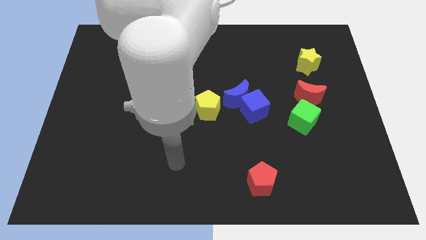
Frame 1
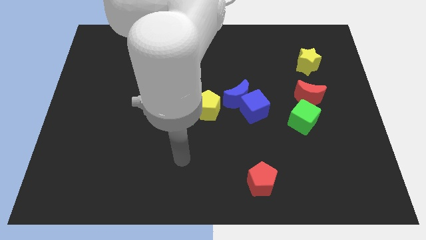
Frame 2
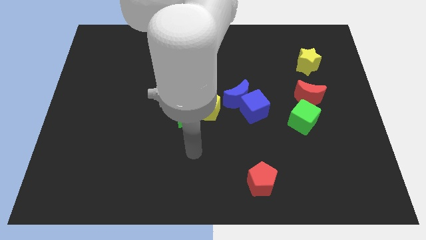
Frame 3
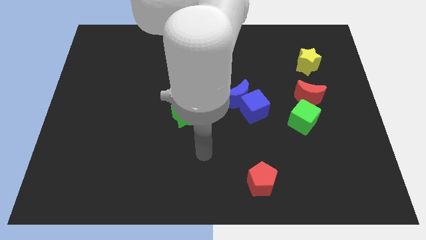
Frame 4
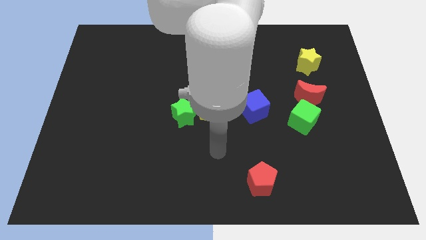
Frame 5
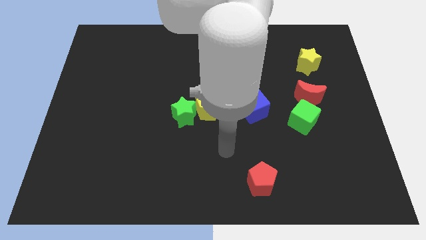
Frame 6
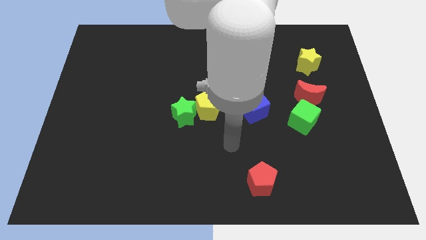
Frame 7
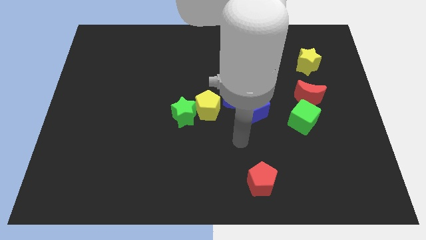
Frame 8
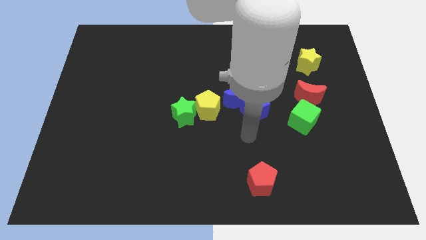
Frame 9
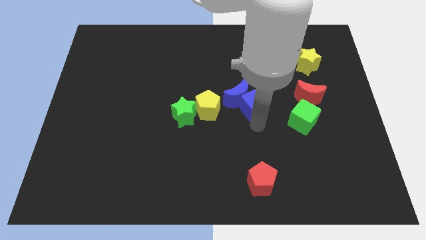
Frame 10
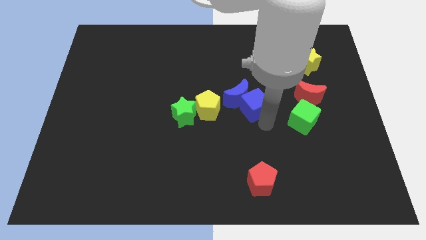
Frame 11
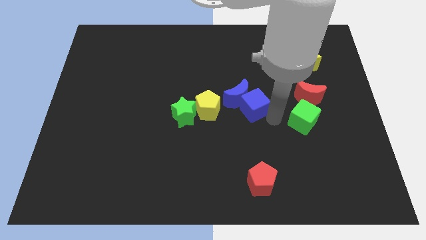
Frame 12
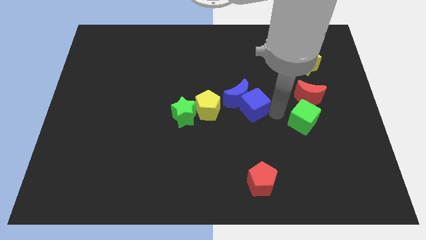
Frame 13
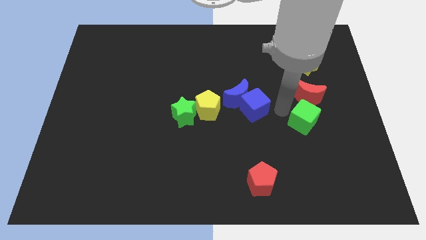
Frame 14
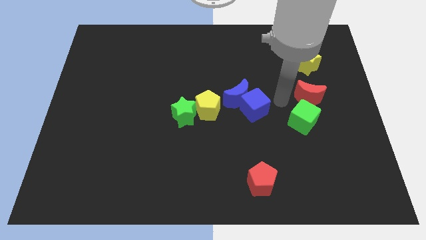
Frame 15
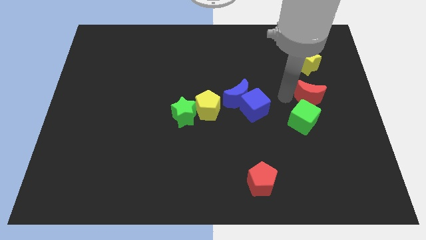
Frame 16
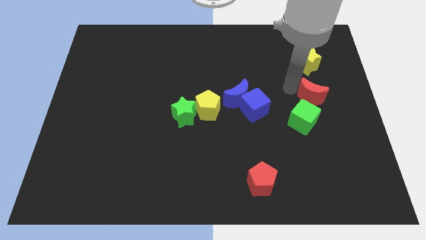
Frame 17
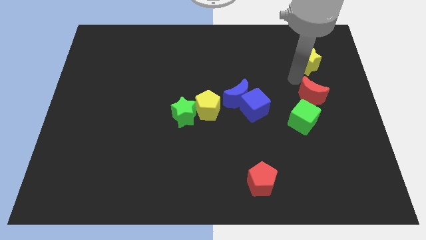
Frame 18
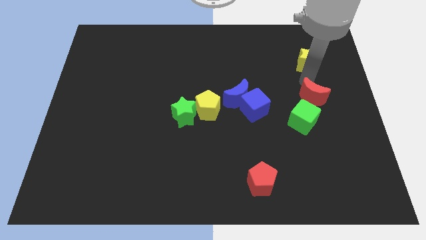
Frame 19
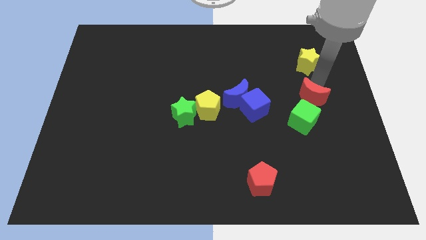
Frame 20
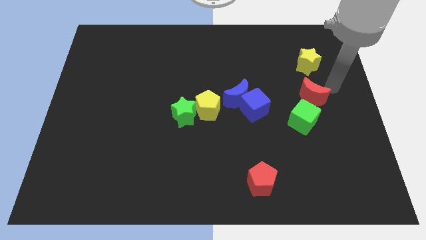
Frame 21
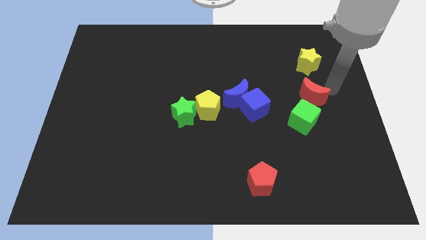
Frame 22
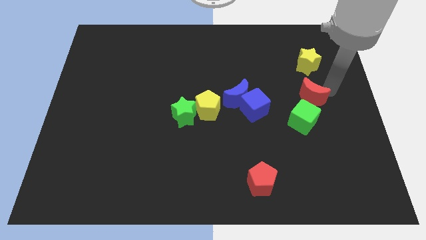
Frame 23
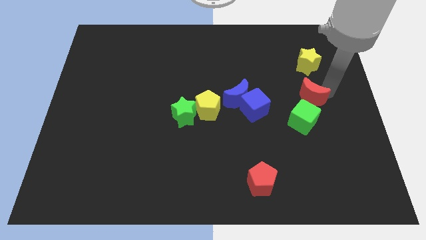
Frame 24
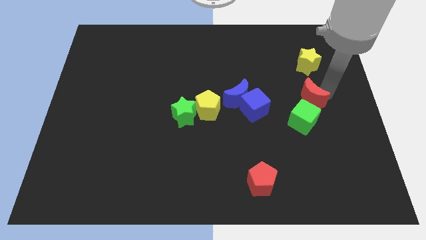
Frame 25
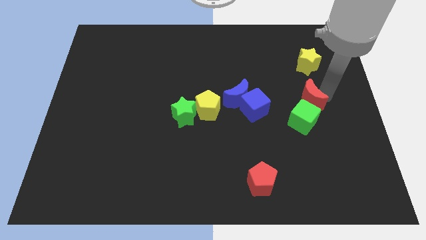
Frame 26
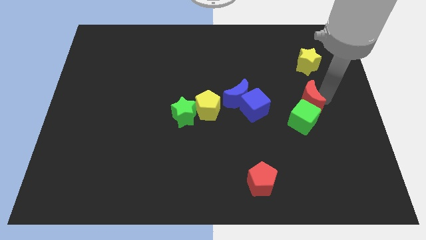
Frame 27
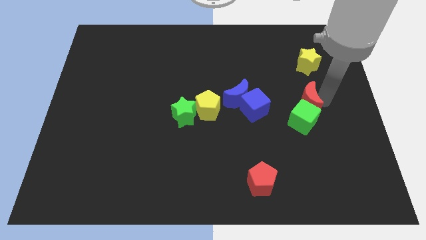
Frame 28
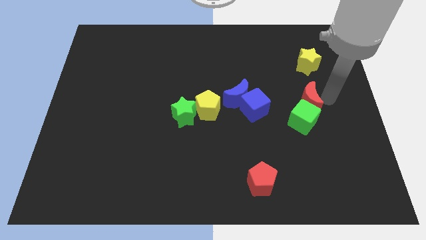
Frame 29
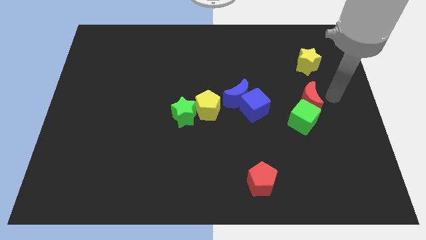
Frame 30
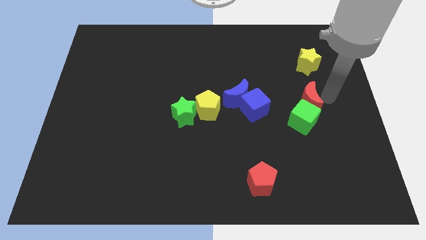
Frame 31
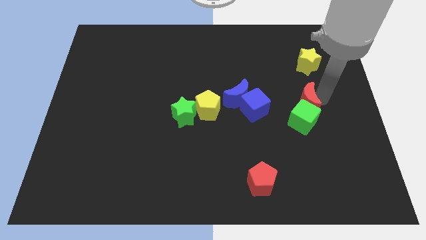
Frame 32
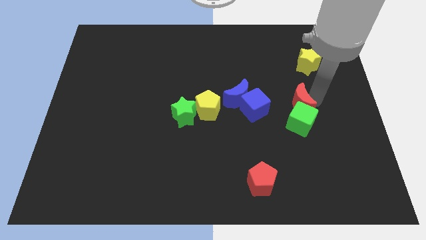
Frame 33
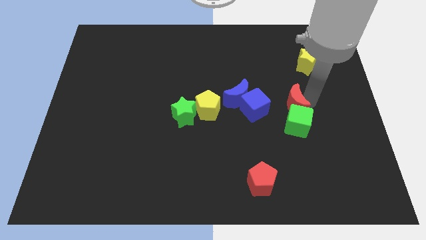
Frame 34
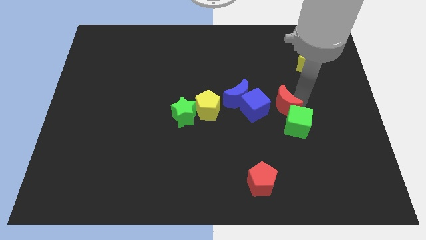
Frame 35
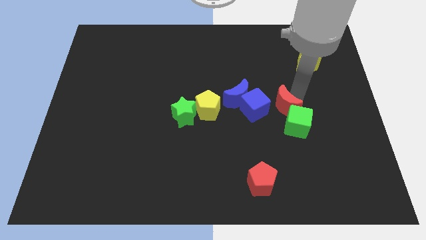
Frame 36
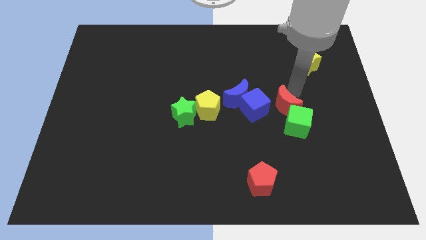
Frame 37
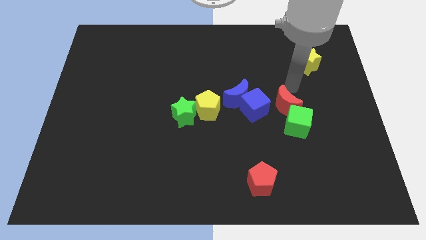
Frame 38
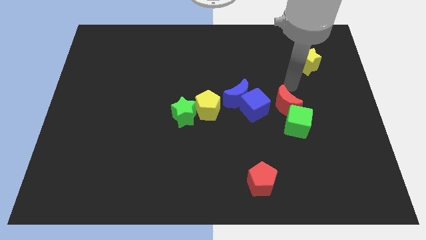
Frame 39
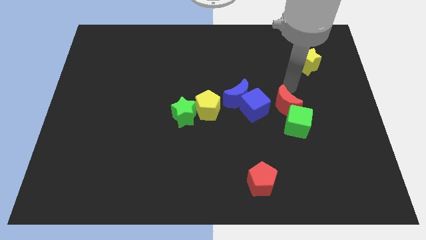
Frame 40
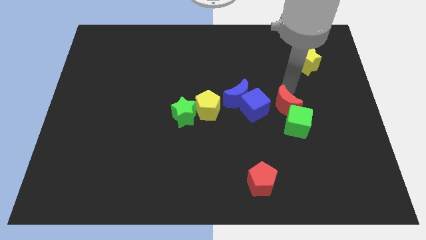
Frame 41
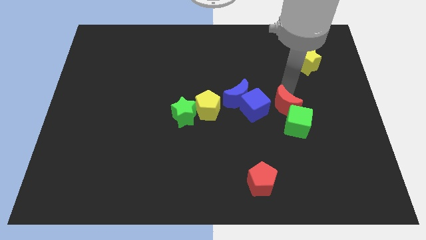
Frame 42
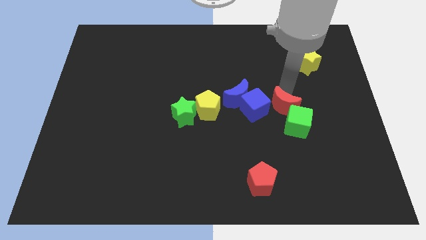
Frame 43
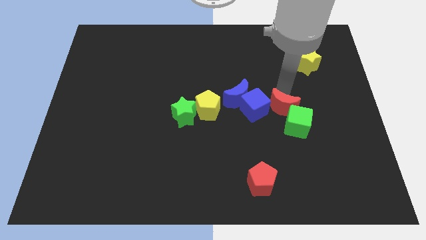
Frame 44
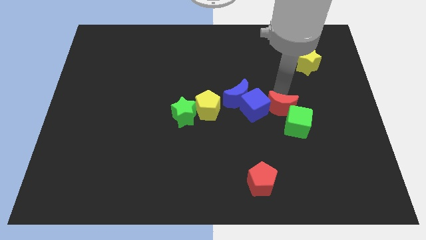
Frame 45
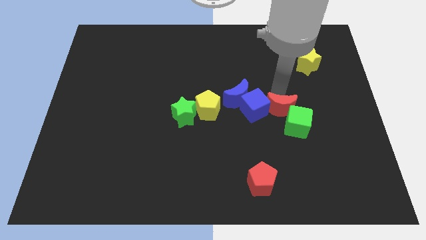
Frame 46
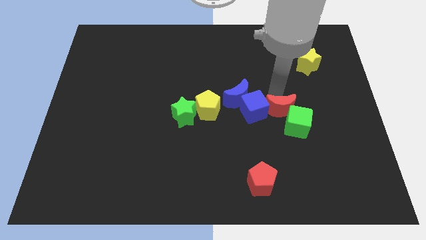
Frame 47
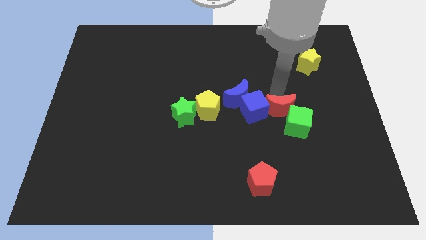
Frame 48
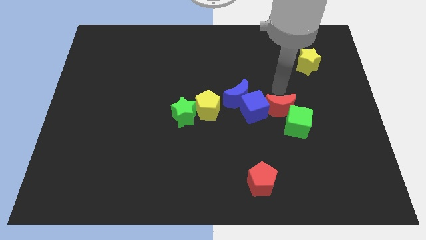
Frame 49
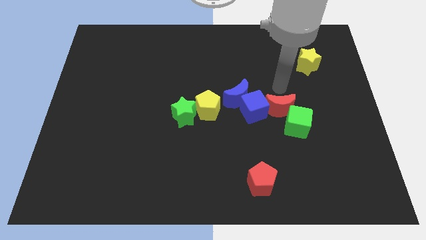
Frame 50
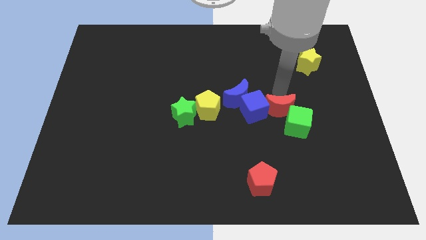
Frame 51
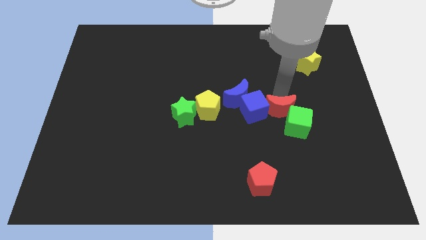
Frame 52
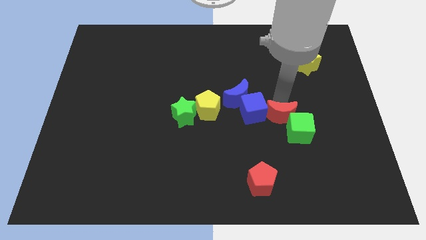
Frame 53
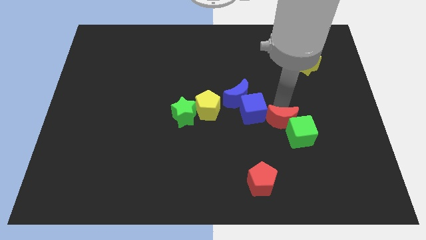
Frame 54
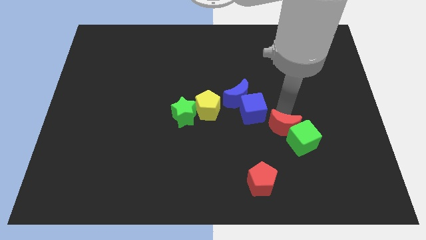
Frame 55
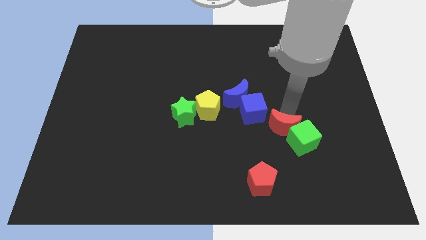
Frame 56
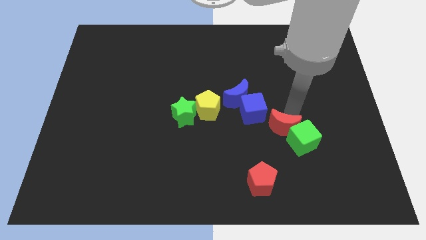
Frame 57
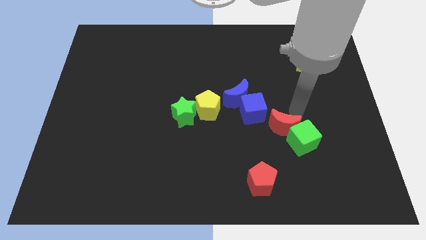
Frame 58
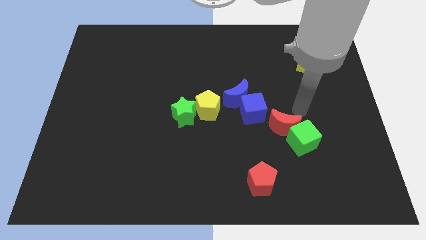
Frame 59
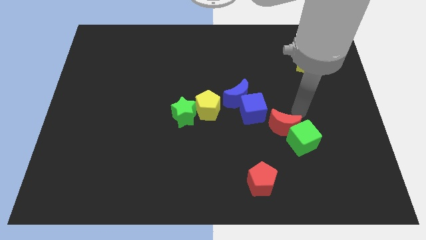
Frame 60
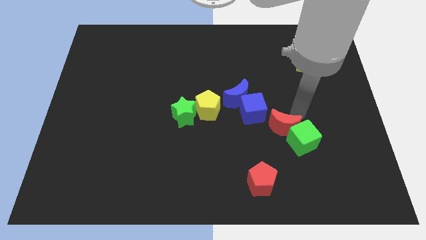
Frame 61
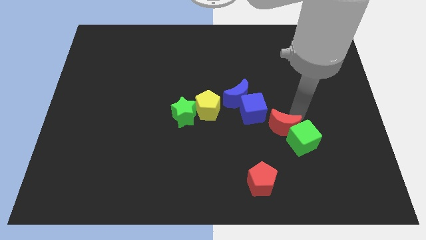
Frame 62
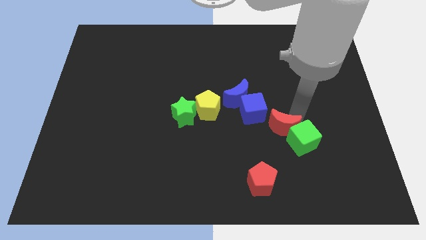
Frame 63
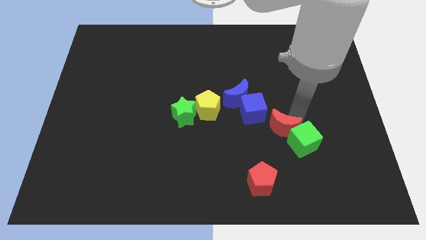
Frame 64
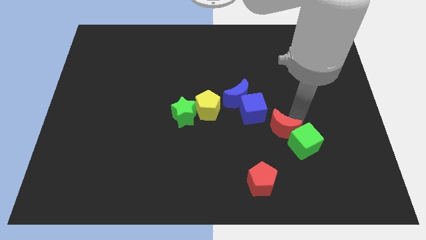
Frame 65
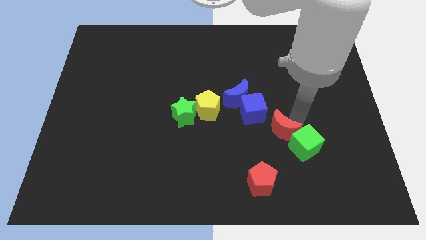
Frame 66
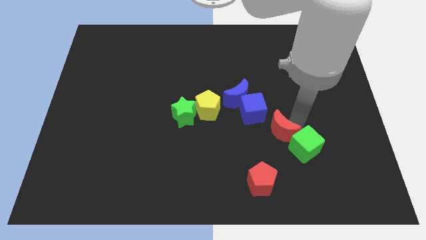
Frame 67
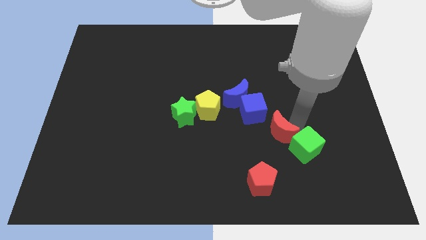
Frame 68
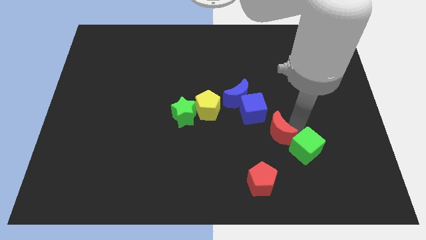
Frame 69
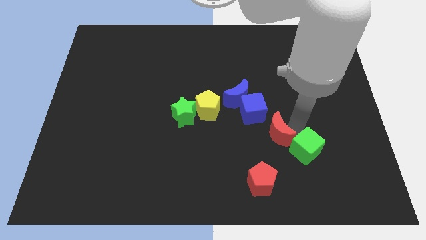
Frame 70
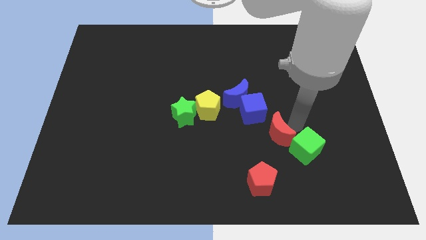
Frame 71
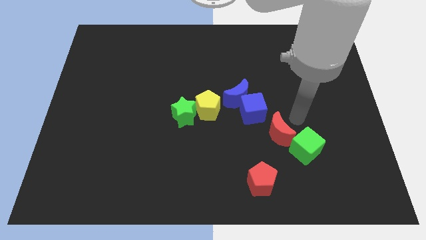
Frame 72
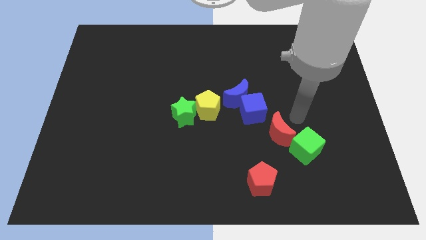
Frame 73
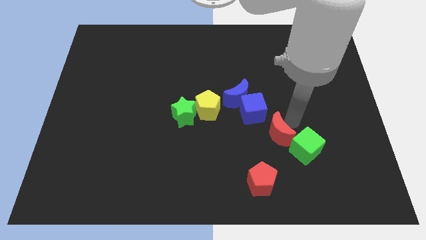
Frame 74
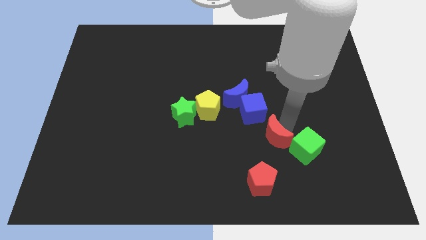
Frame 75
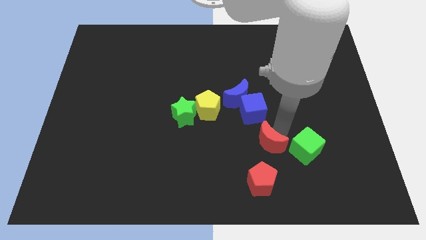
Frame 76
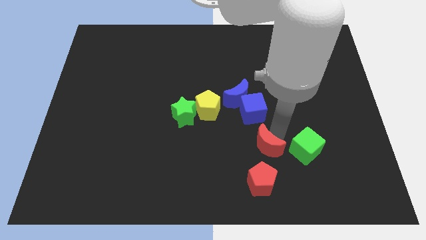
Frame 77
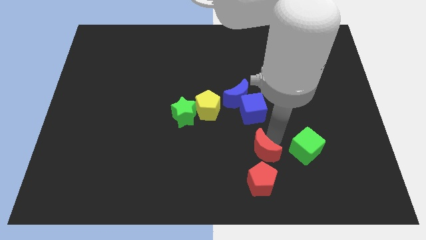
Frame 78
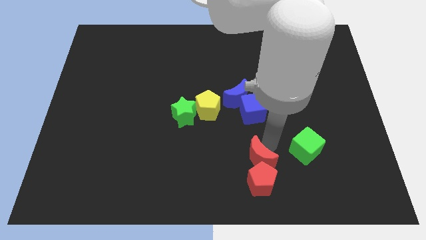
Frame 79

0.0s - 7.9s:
move the red moon diagonally downwards and left

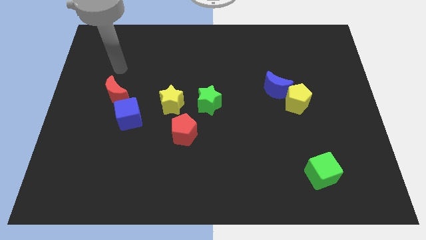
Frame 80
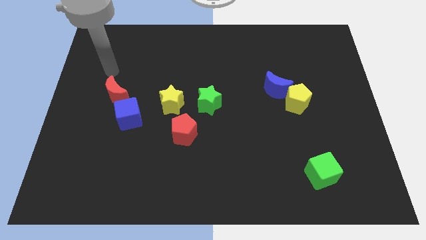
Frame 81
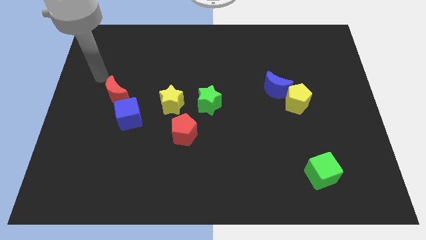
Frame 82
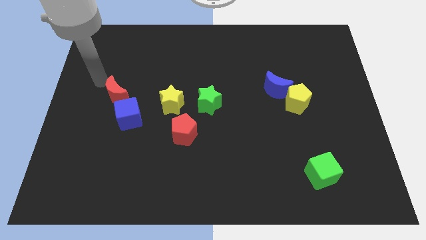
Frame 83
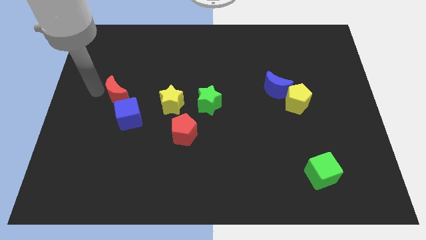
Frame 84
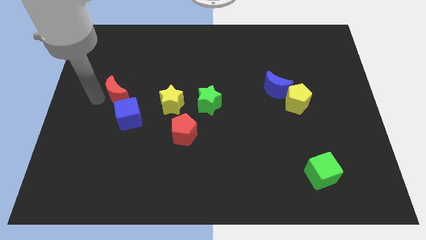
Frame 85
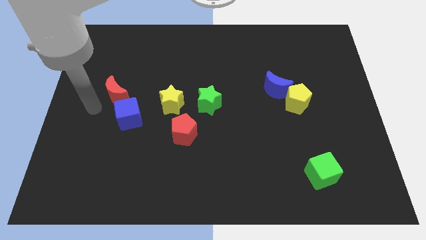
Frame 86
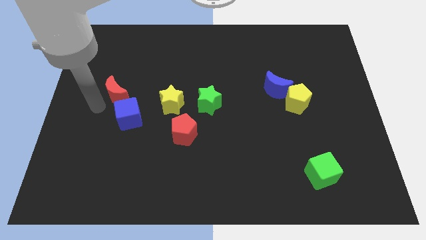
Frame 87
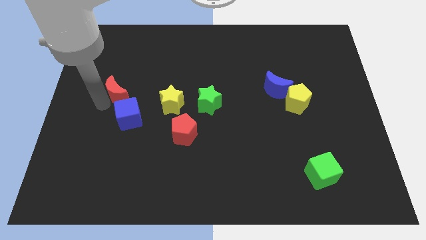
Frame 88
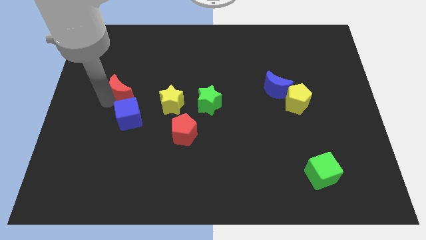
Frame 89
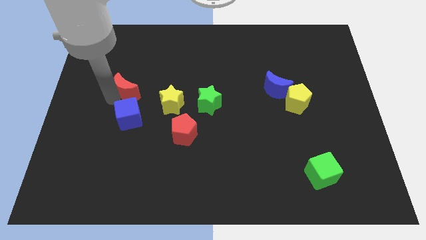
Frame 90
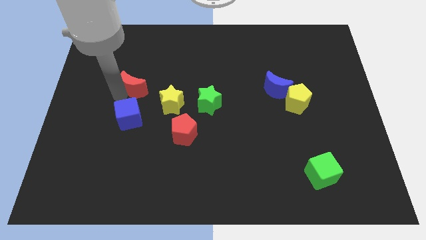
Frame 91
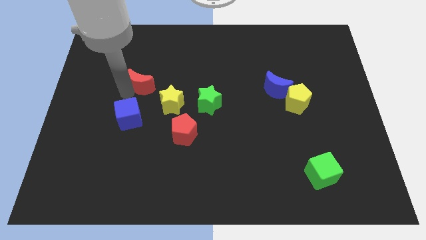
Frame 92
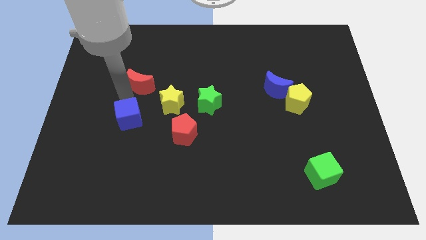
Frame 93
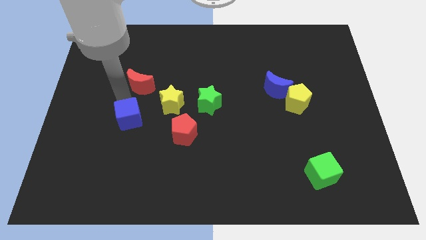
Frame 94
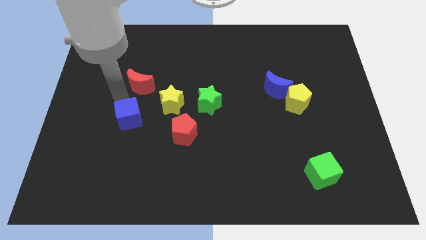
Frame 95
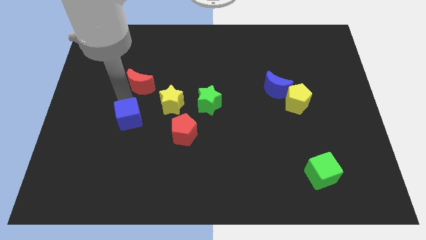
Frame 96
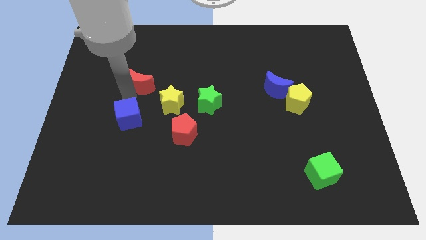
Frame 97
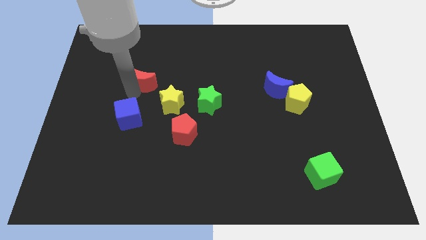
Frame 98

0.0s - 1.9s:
slightly move the red moon diagonally upwards and to the right
